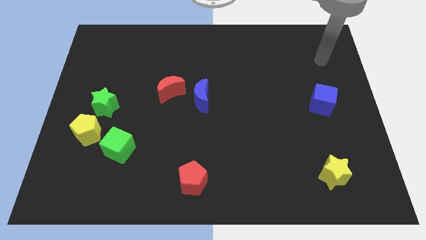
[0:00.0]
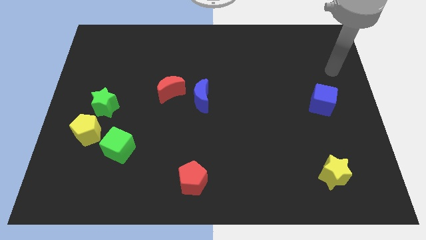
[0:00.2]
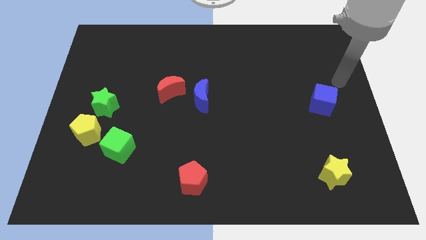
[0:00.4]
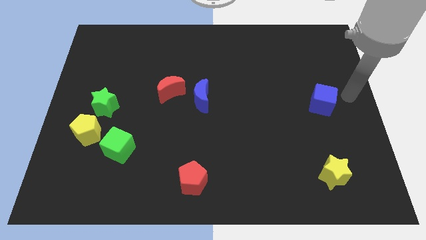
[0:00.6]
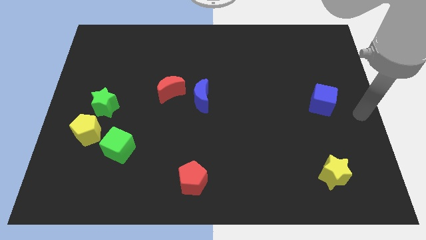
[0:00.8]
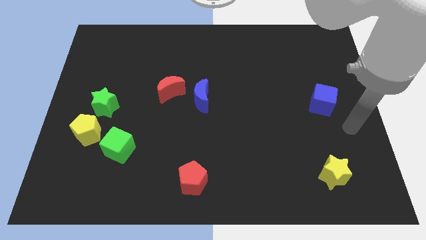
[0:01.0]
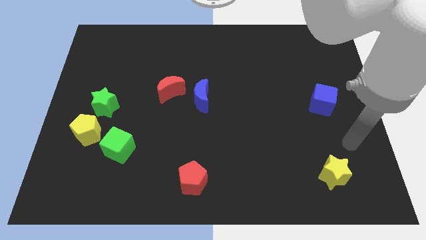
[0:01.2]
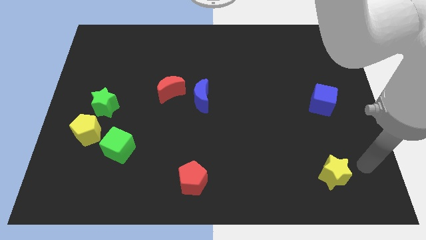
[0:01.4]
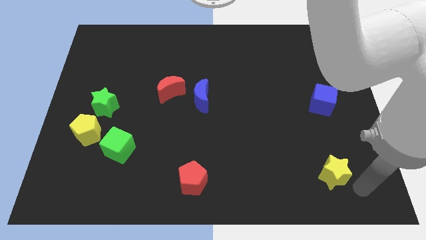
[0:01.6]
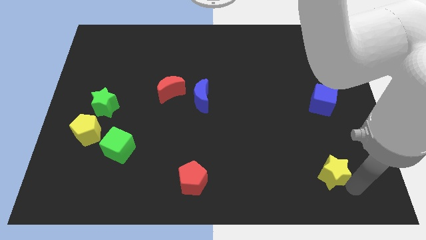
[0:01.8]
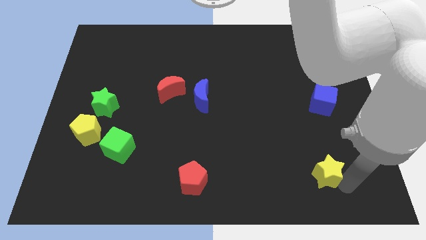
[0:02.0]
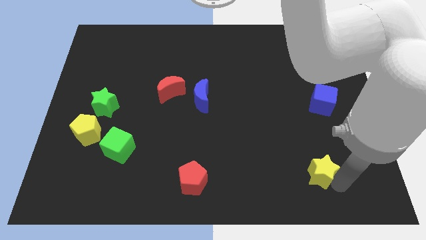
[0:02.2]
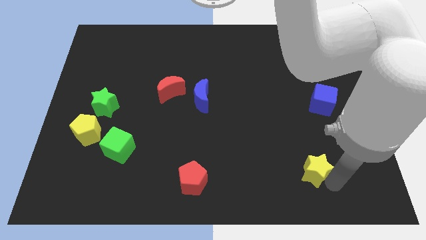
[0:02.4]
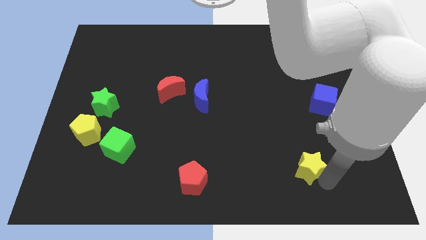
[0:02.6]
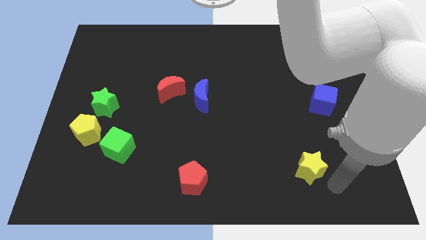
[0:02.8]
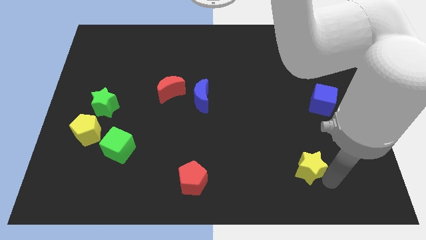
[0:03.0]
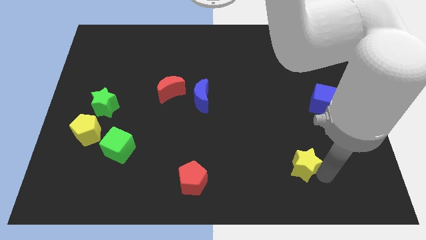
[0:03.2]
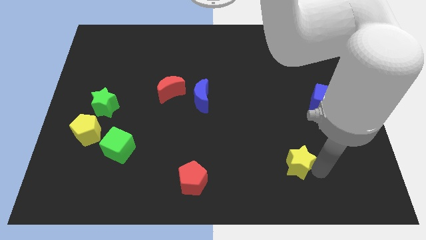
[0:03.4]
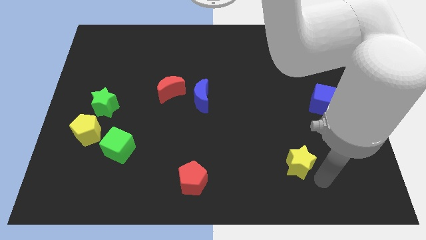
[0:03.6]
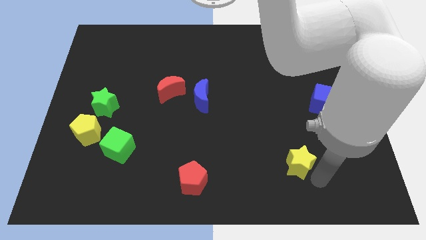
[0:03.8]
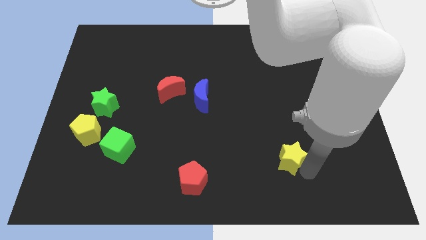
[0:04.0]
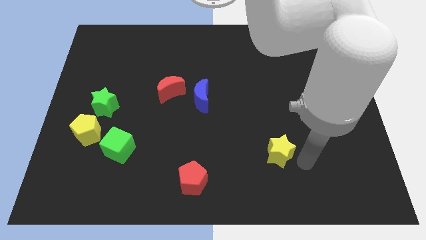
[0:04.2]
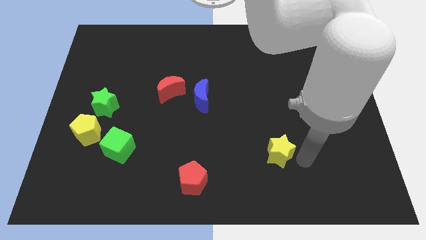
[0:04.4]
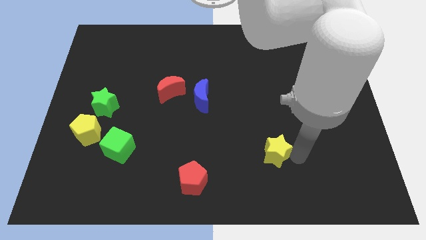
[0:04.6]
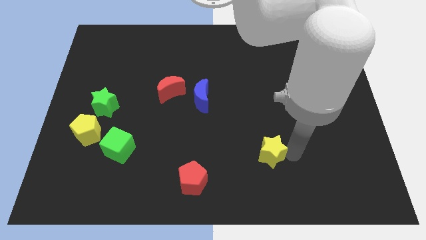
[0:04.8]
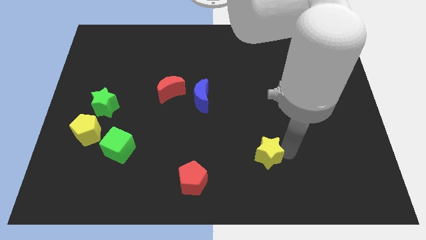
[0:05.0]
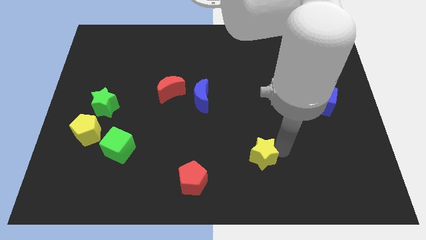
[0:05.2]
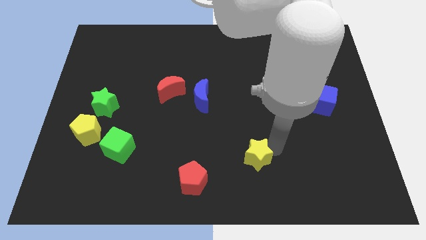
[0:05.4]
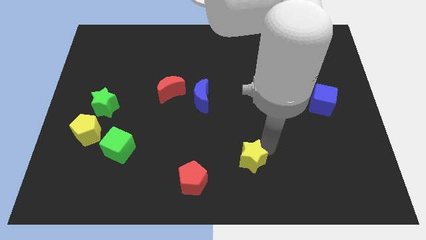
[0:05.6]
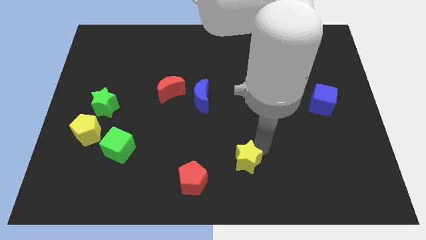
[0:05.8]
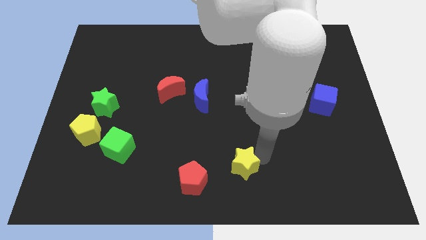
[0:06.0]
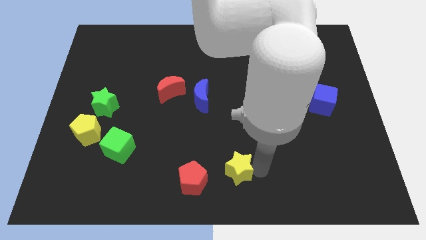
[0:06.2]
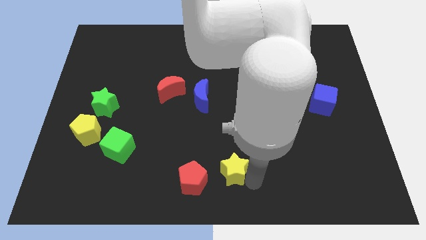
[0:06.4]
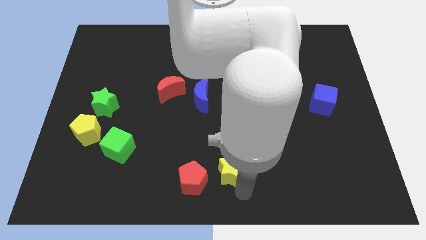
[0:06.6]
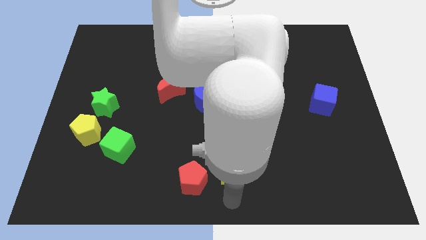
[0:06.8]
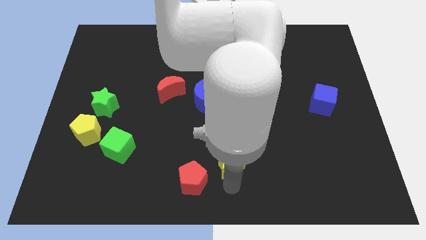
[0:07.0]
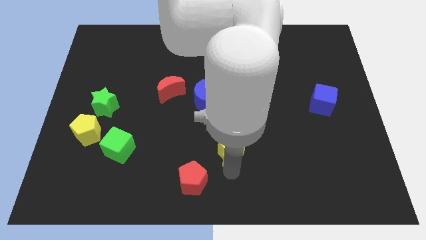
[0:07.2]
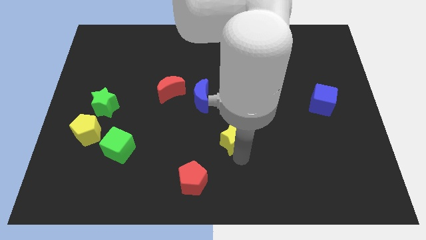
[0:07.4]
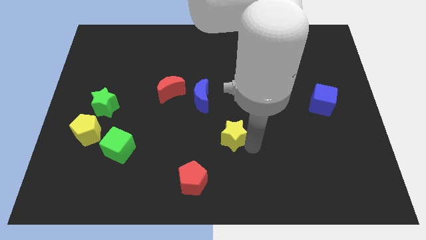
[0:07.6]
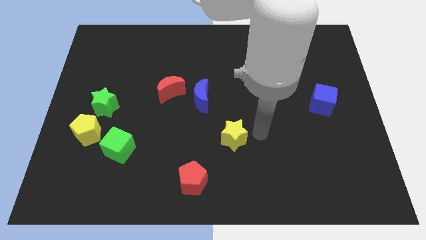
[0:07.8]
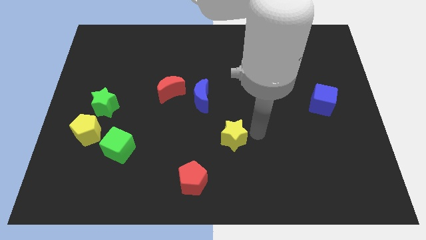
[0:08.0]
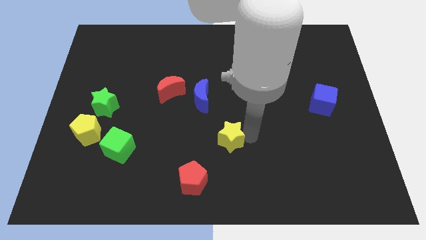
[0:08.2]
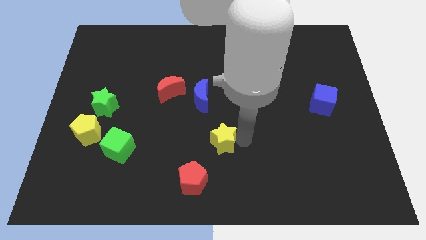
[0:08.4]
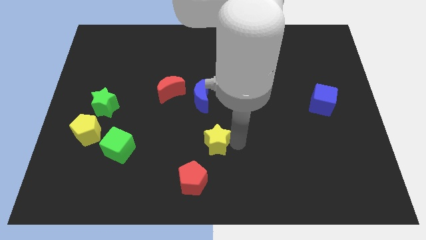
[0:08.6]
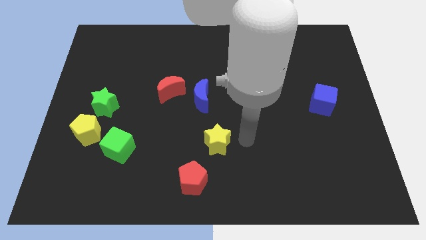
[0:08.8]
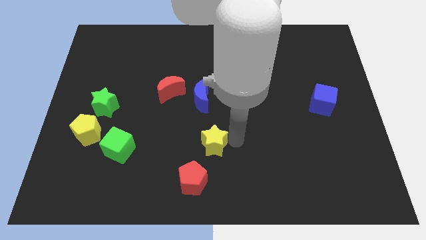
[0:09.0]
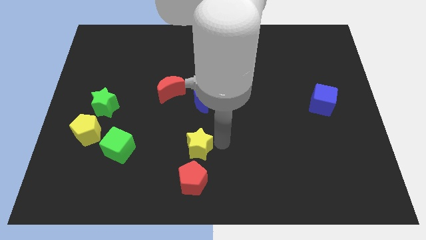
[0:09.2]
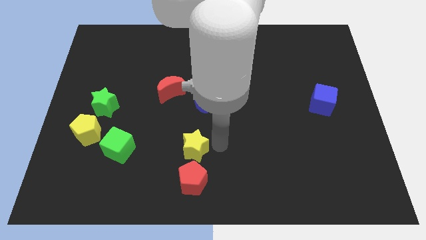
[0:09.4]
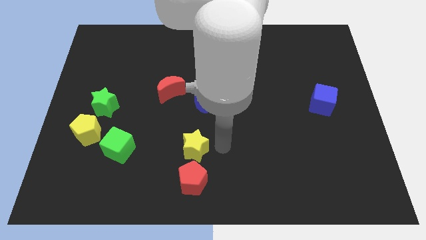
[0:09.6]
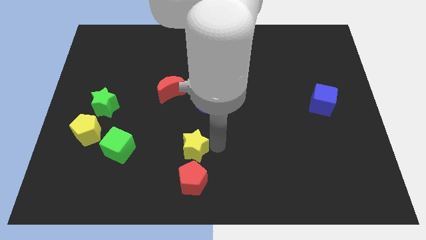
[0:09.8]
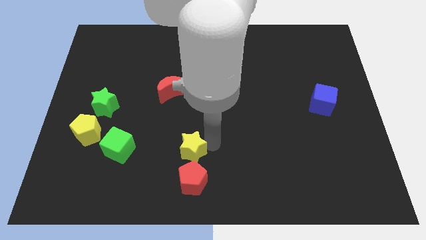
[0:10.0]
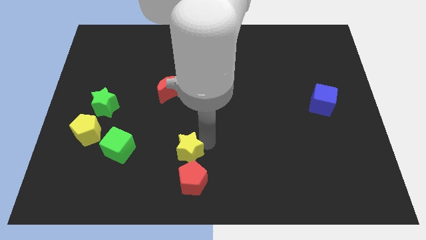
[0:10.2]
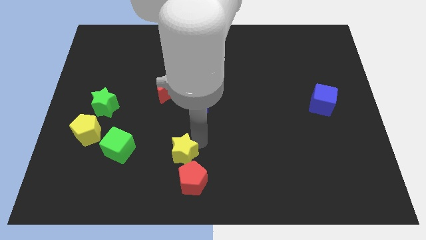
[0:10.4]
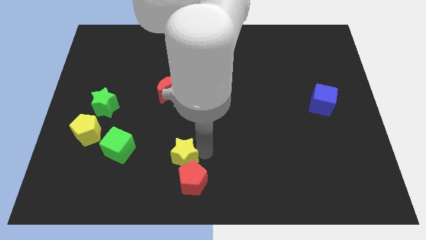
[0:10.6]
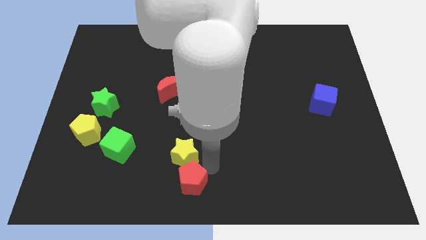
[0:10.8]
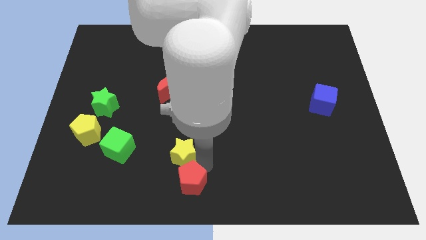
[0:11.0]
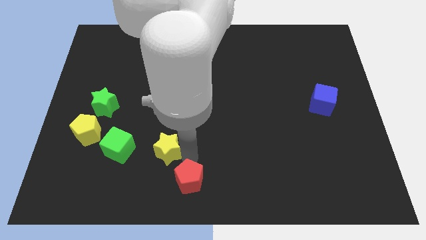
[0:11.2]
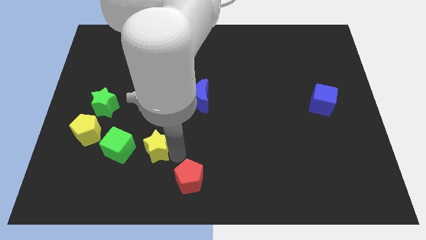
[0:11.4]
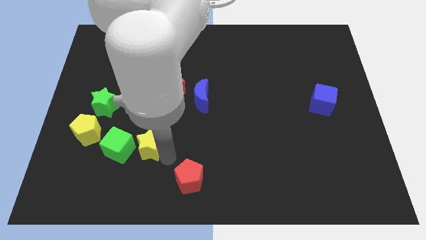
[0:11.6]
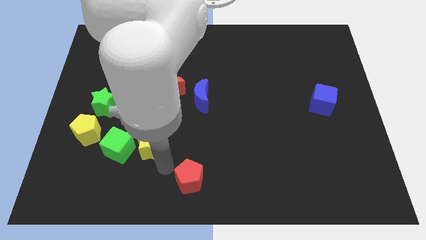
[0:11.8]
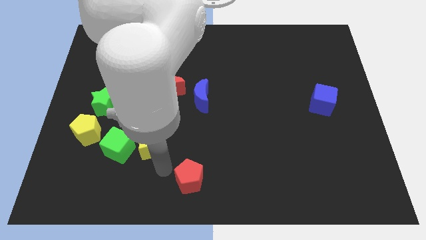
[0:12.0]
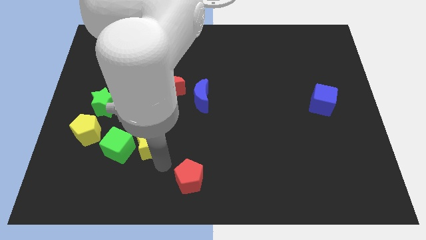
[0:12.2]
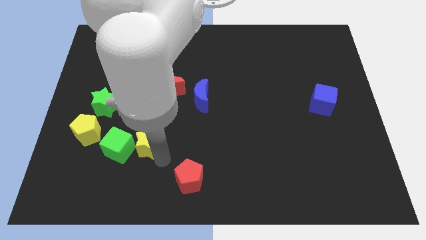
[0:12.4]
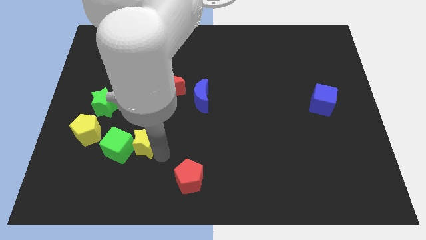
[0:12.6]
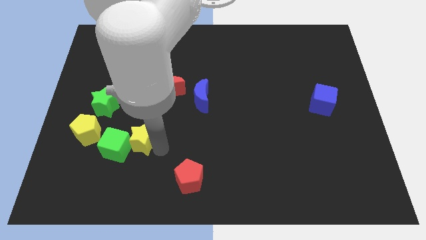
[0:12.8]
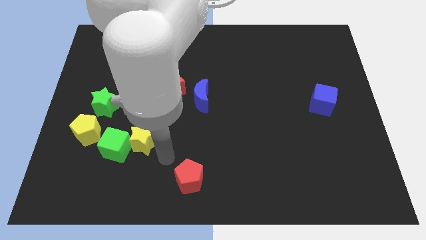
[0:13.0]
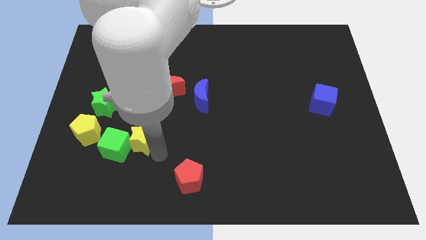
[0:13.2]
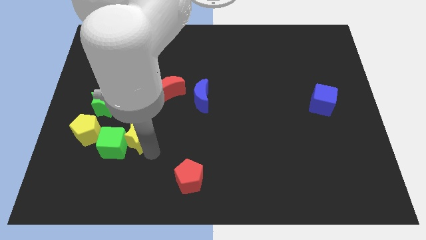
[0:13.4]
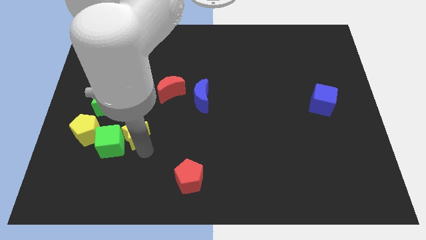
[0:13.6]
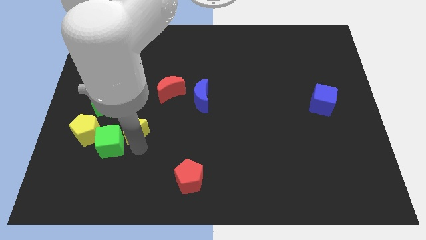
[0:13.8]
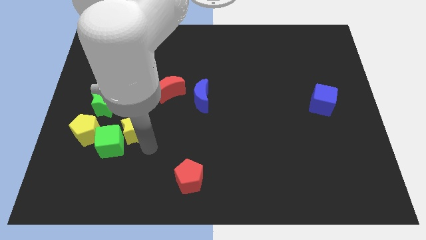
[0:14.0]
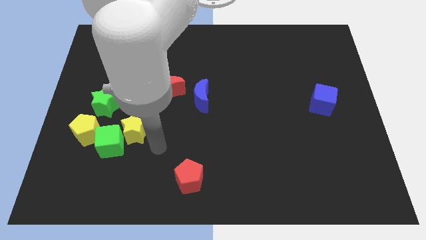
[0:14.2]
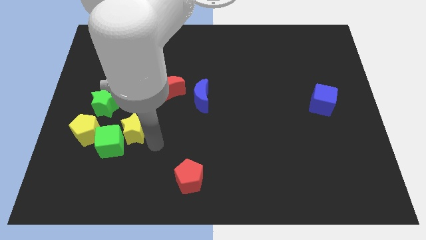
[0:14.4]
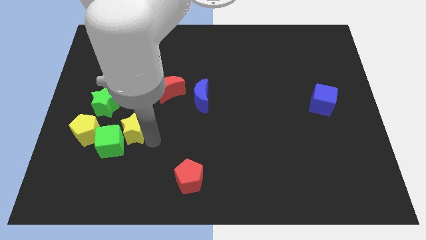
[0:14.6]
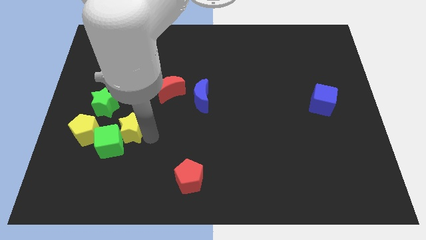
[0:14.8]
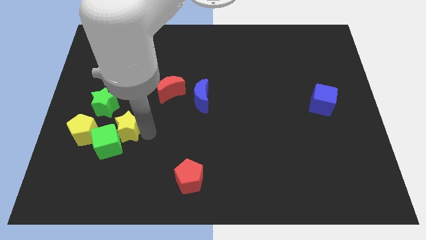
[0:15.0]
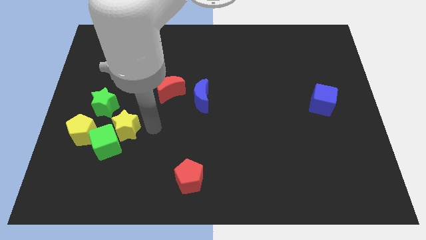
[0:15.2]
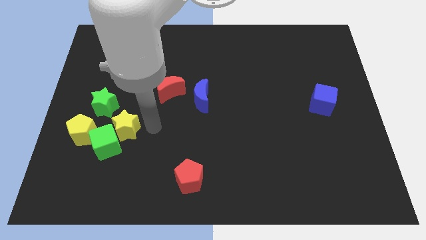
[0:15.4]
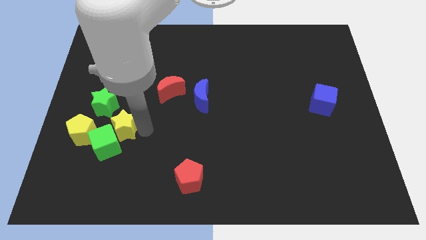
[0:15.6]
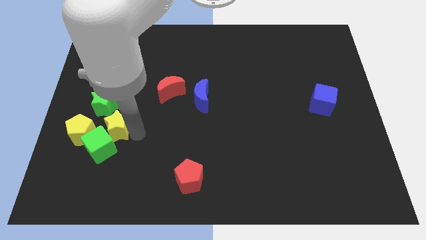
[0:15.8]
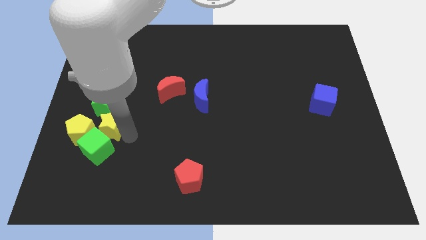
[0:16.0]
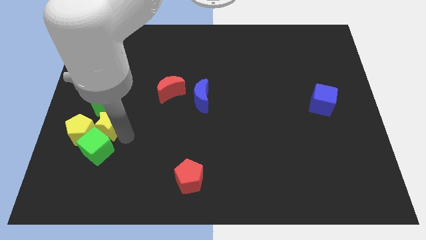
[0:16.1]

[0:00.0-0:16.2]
move the yellow star close to the yellow pentagon
